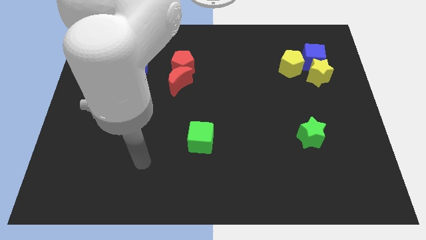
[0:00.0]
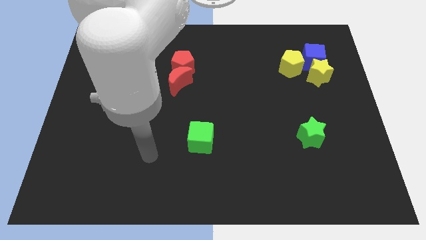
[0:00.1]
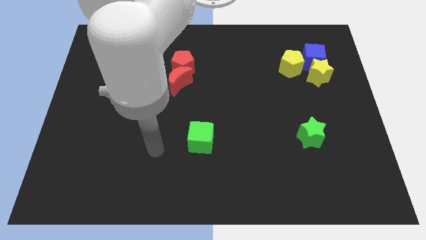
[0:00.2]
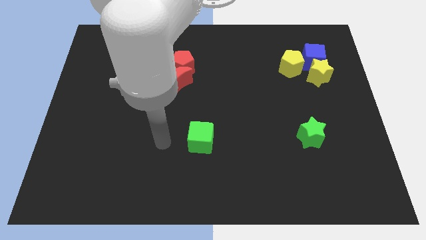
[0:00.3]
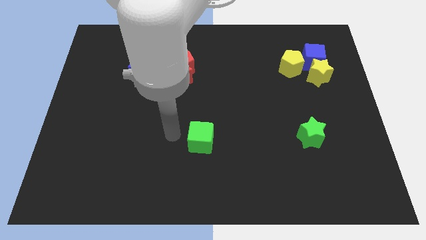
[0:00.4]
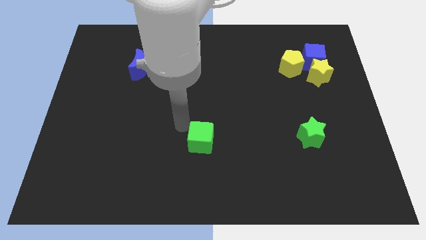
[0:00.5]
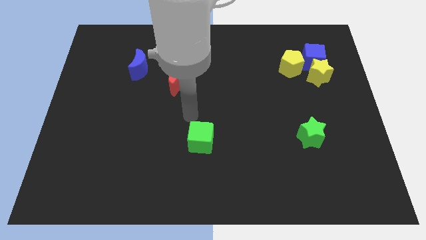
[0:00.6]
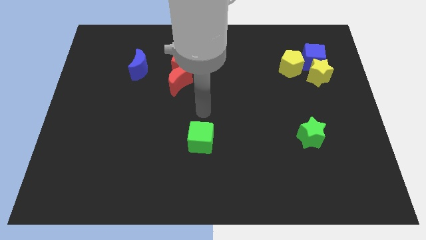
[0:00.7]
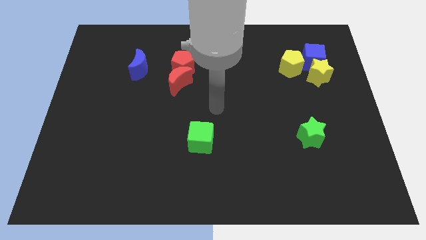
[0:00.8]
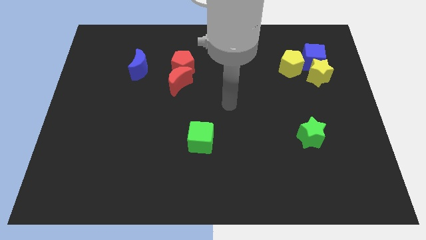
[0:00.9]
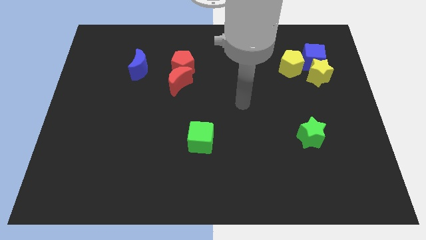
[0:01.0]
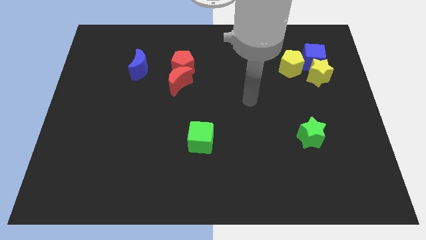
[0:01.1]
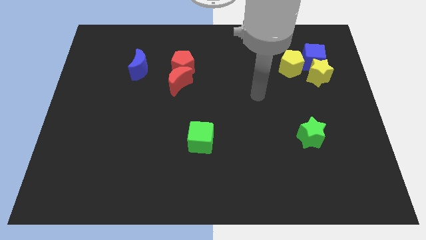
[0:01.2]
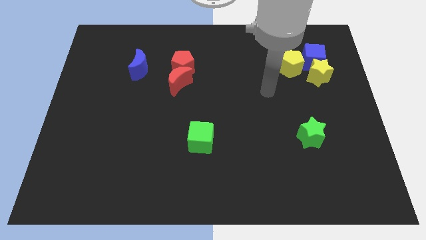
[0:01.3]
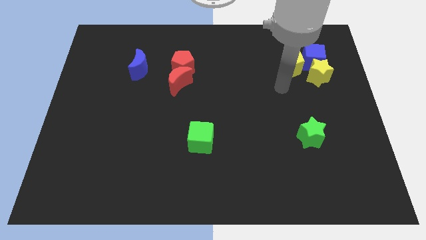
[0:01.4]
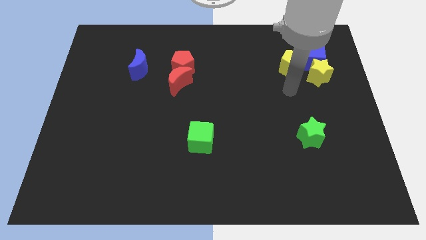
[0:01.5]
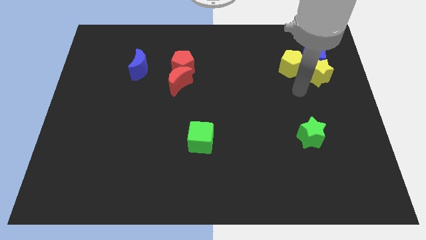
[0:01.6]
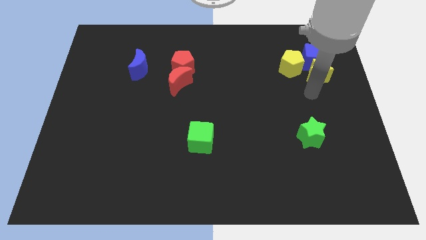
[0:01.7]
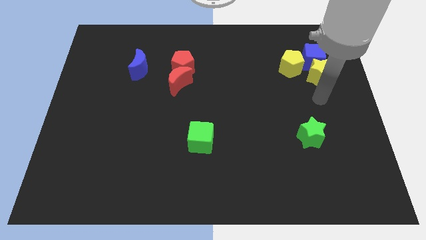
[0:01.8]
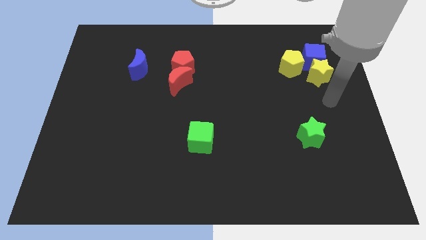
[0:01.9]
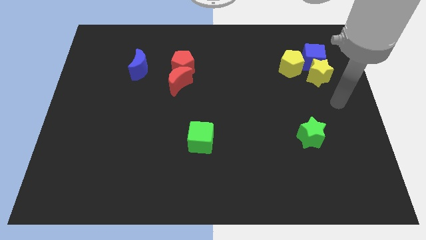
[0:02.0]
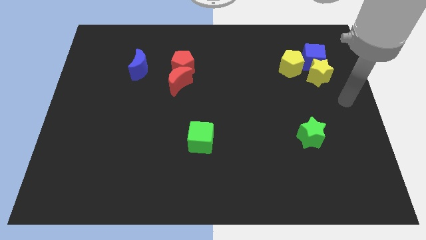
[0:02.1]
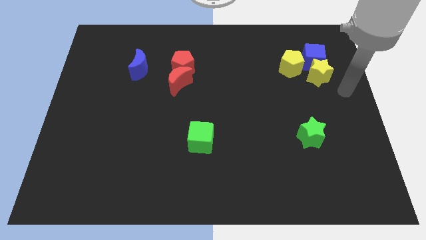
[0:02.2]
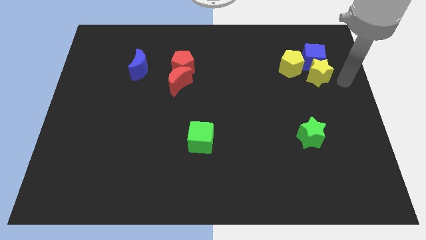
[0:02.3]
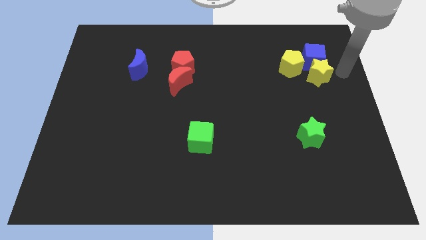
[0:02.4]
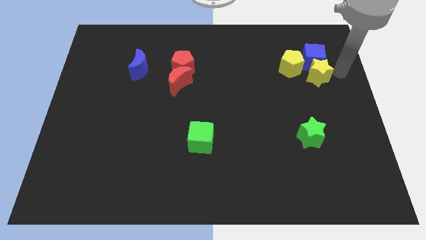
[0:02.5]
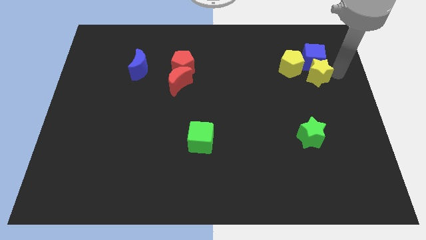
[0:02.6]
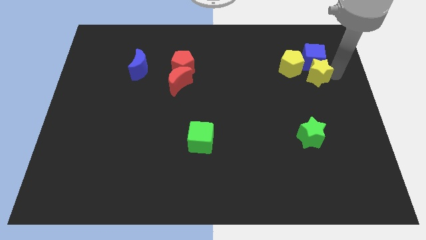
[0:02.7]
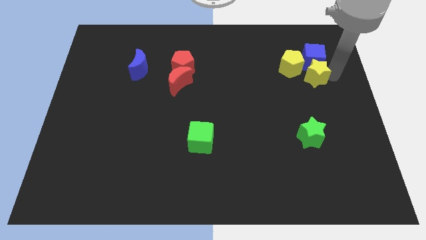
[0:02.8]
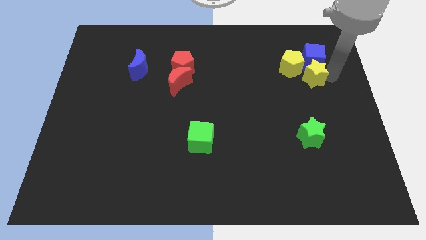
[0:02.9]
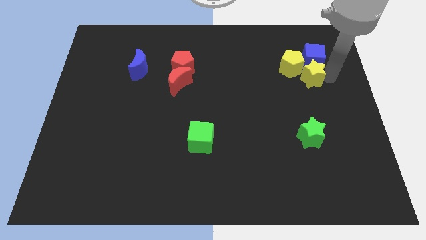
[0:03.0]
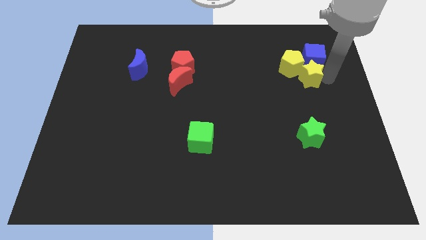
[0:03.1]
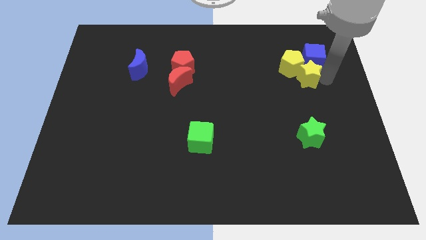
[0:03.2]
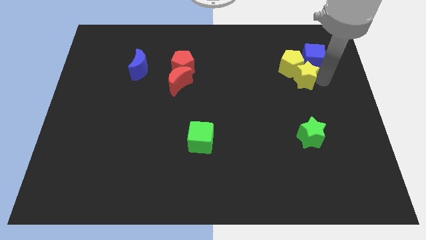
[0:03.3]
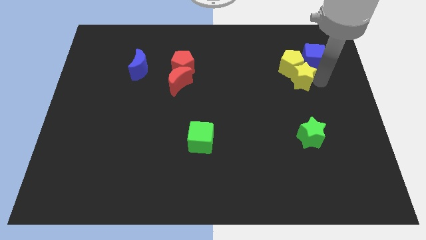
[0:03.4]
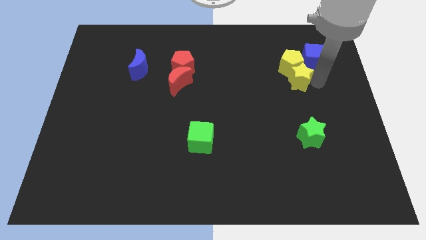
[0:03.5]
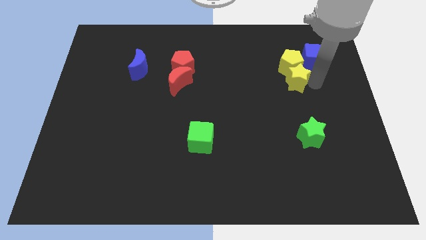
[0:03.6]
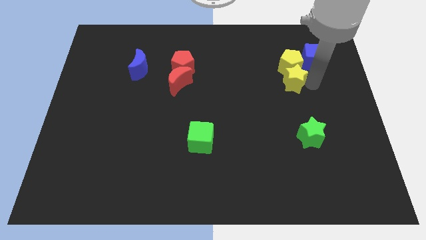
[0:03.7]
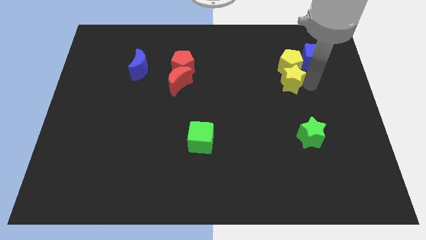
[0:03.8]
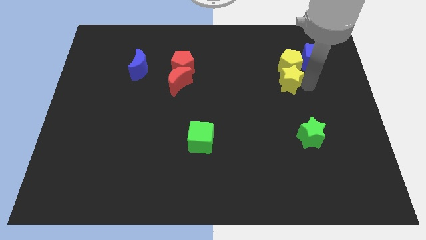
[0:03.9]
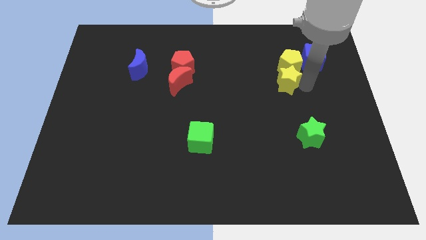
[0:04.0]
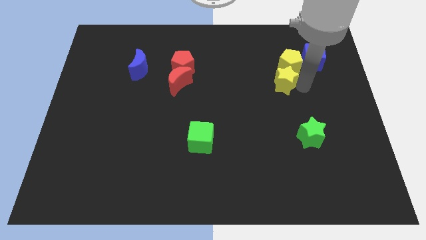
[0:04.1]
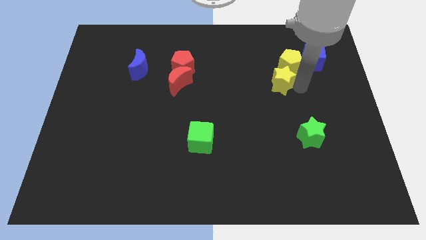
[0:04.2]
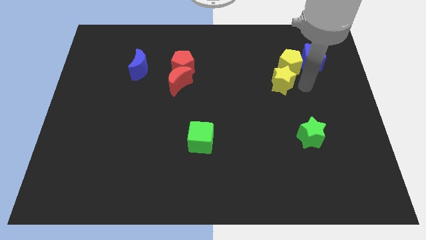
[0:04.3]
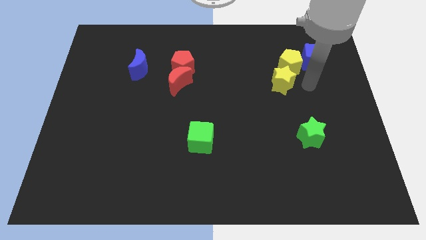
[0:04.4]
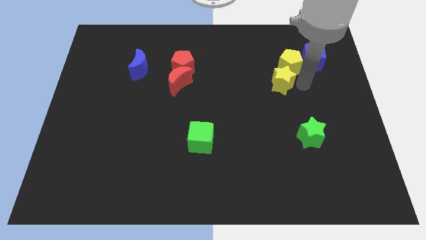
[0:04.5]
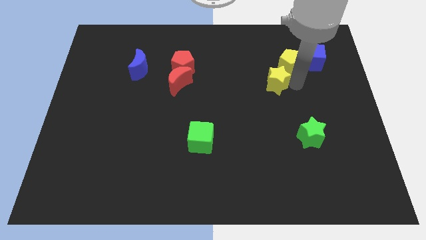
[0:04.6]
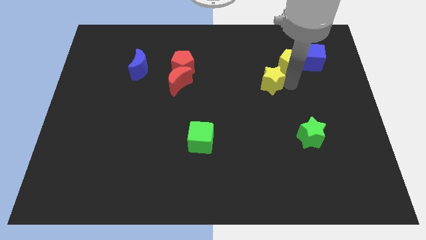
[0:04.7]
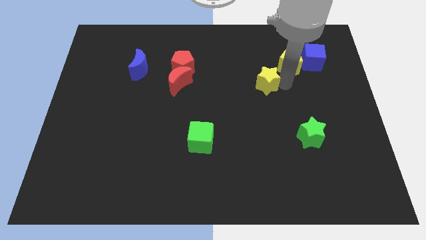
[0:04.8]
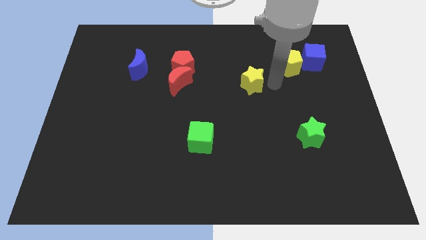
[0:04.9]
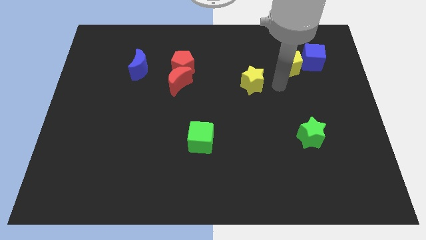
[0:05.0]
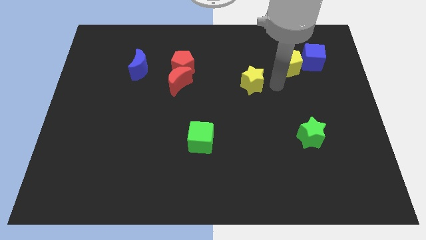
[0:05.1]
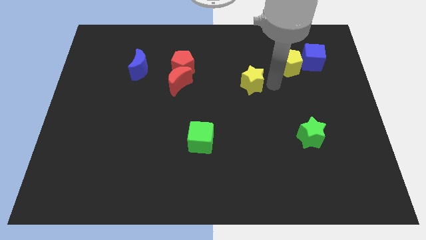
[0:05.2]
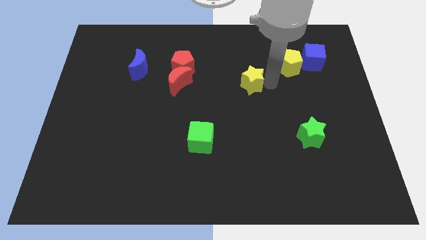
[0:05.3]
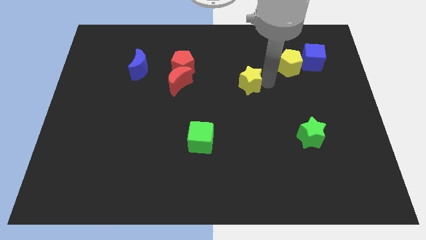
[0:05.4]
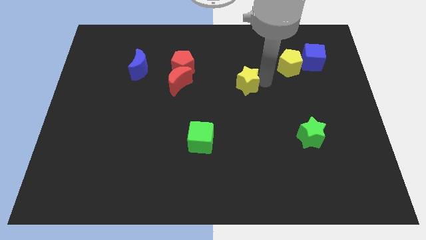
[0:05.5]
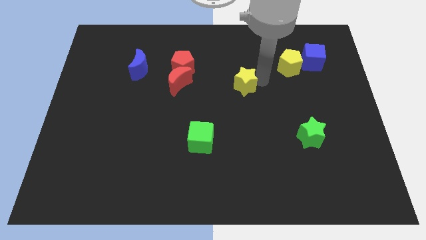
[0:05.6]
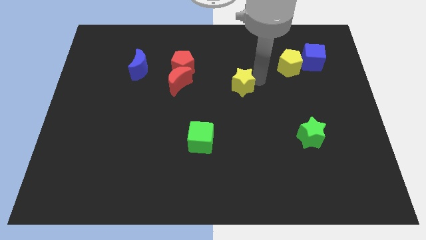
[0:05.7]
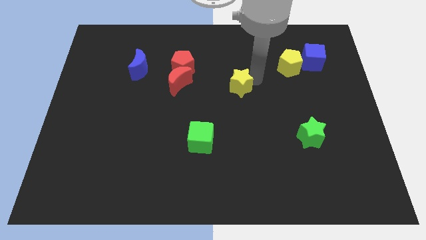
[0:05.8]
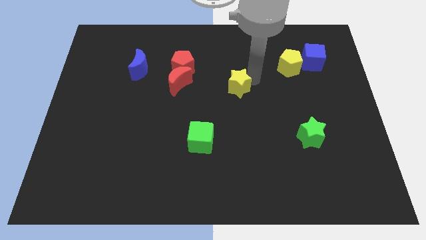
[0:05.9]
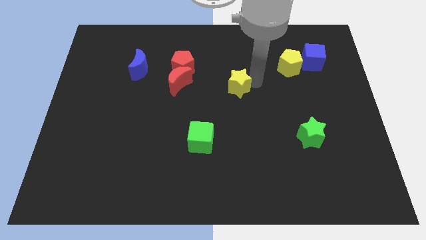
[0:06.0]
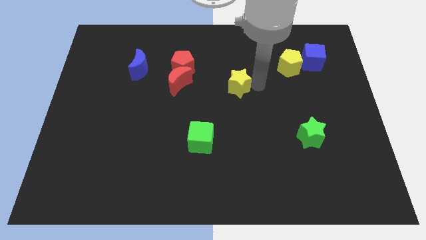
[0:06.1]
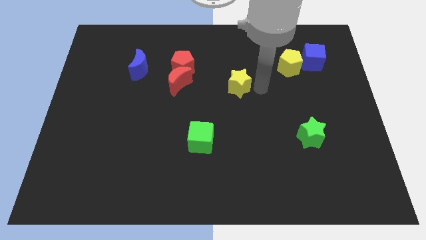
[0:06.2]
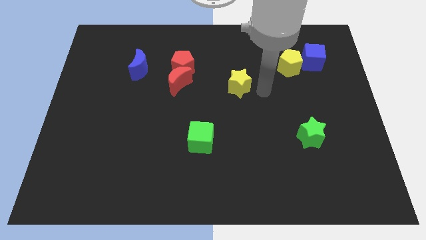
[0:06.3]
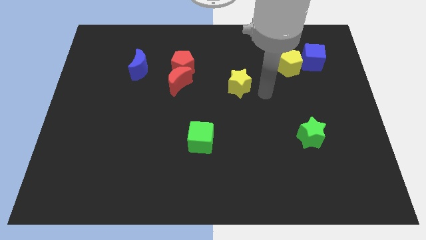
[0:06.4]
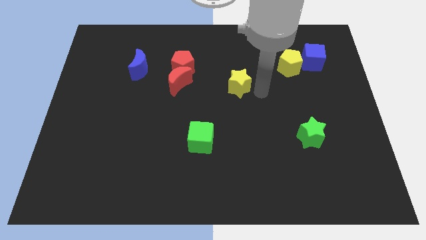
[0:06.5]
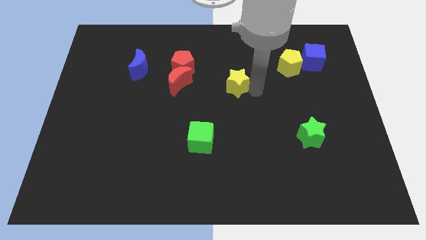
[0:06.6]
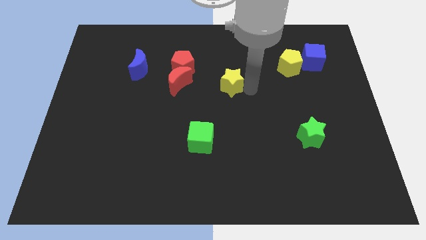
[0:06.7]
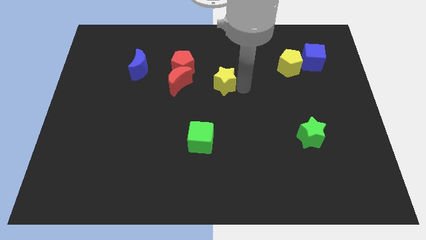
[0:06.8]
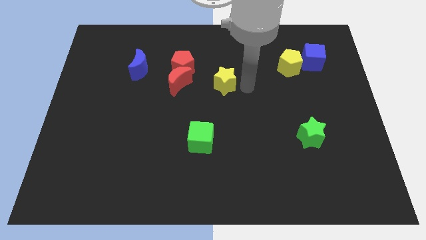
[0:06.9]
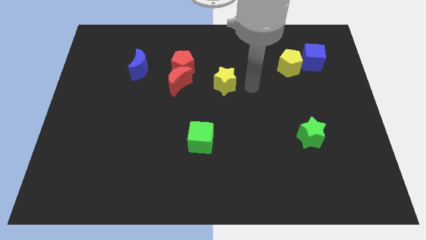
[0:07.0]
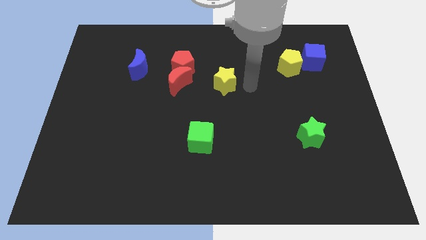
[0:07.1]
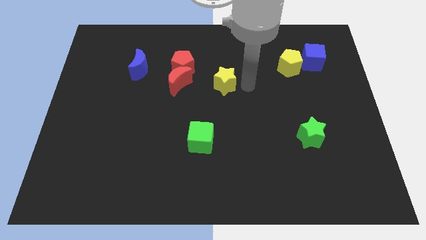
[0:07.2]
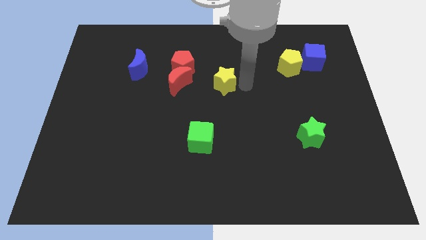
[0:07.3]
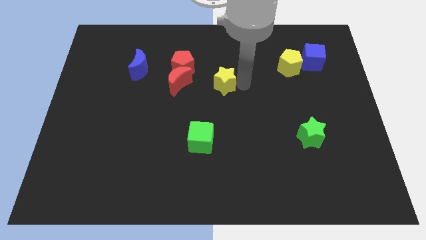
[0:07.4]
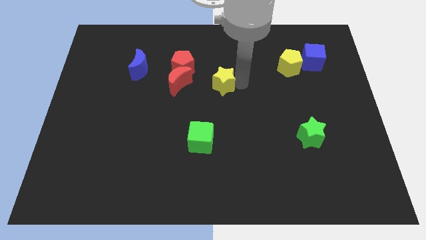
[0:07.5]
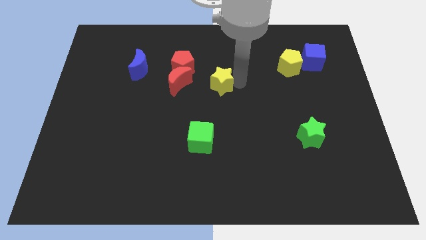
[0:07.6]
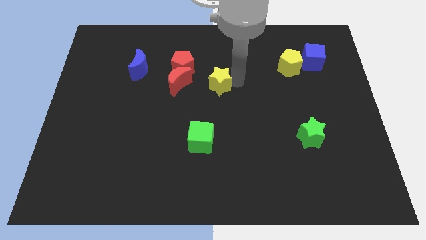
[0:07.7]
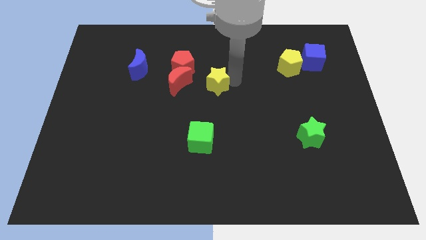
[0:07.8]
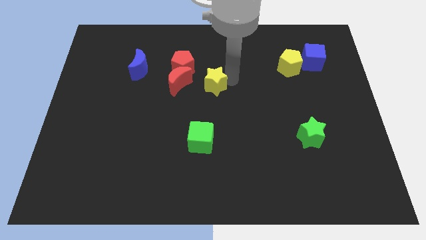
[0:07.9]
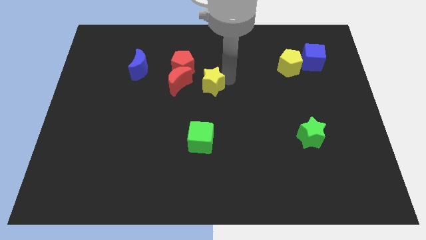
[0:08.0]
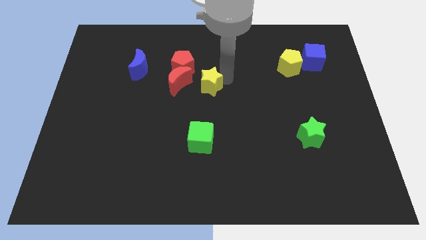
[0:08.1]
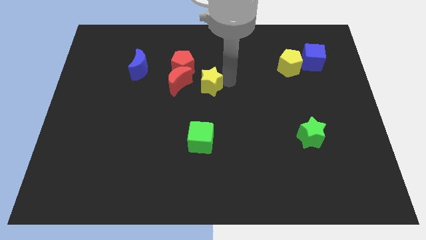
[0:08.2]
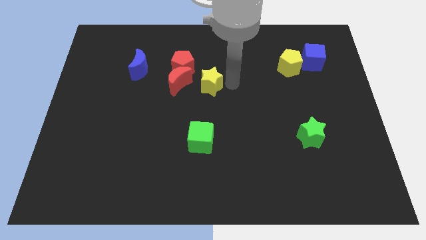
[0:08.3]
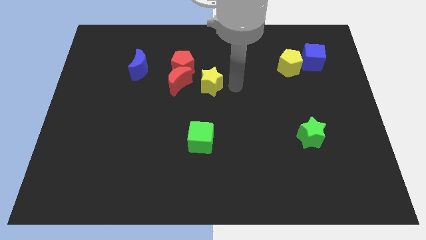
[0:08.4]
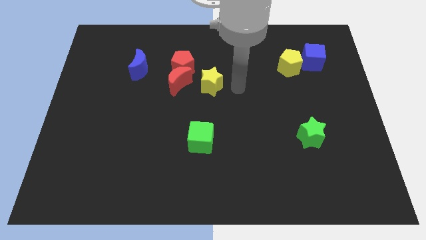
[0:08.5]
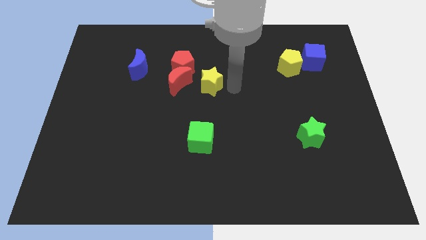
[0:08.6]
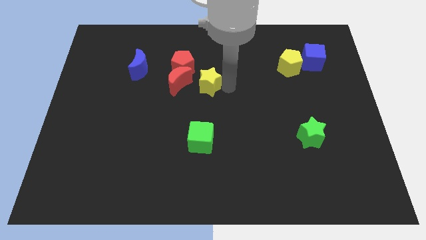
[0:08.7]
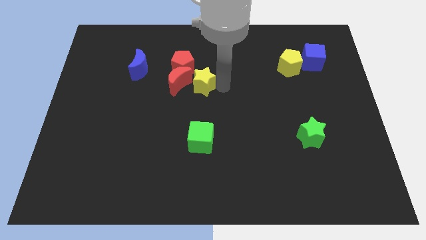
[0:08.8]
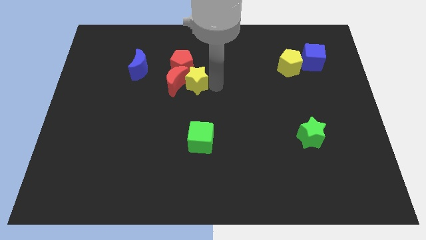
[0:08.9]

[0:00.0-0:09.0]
slide the yellow star to the red moon
